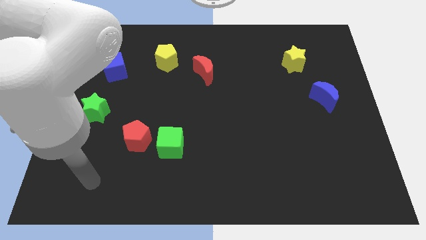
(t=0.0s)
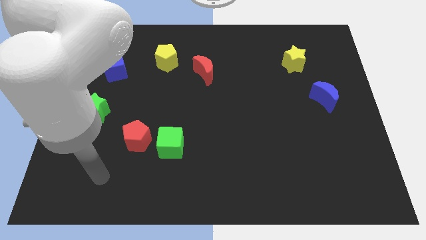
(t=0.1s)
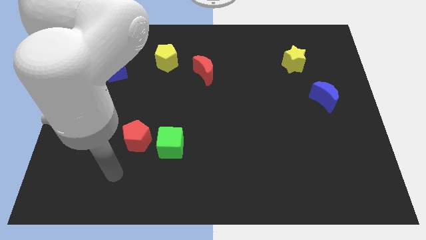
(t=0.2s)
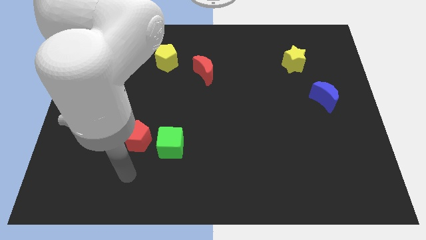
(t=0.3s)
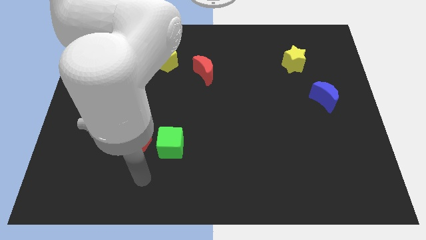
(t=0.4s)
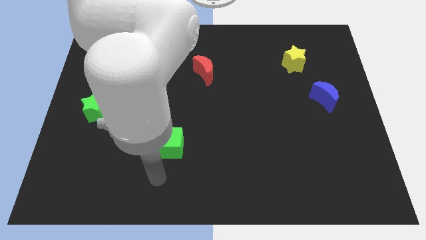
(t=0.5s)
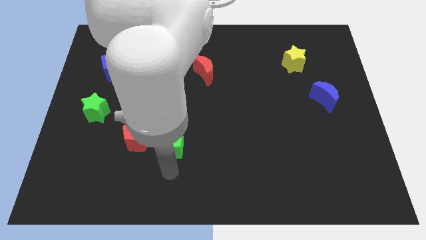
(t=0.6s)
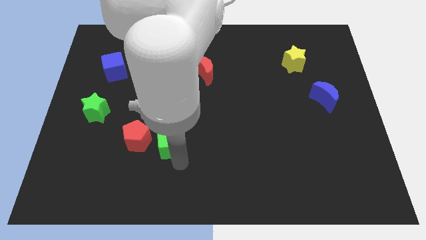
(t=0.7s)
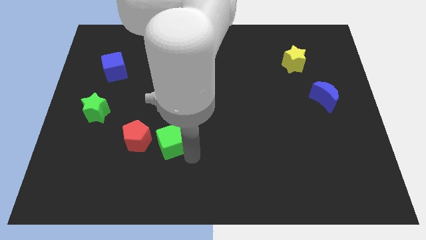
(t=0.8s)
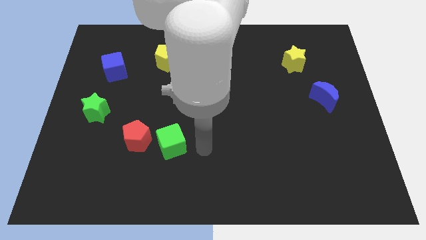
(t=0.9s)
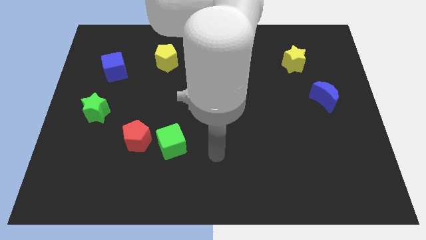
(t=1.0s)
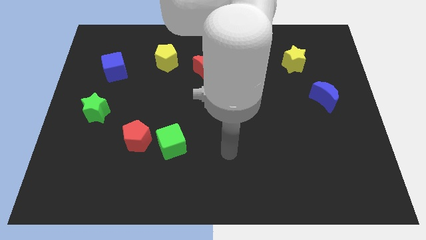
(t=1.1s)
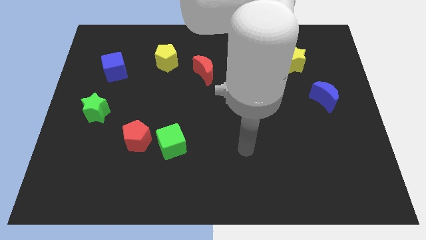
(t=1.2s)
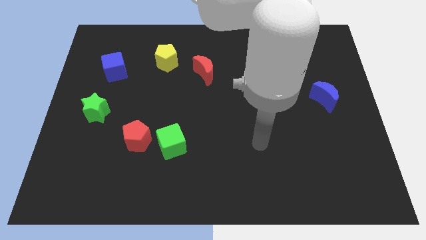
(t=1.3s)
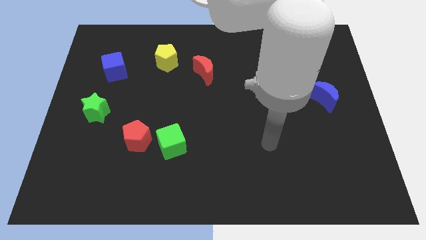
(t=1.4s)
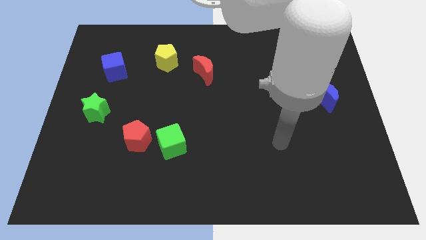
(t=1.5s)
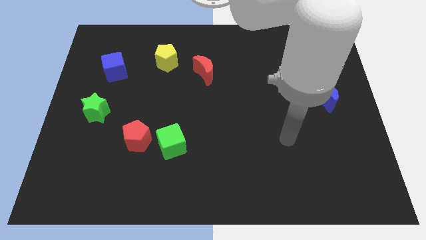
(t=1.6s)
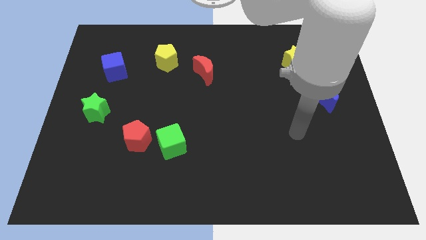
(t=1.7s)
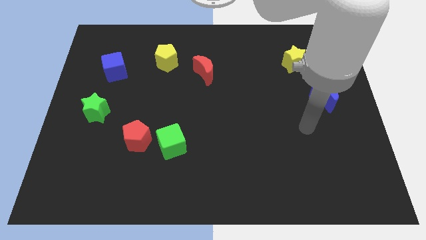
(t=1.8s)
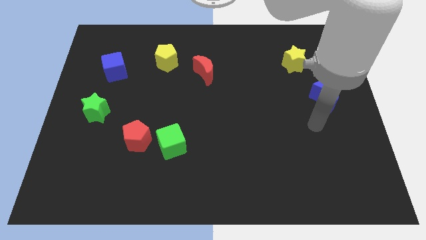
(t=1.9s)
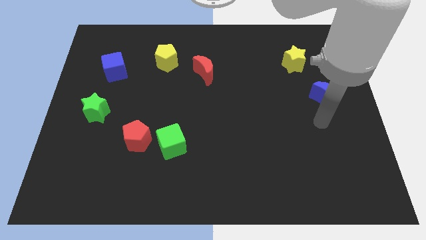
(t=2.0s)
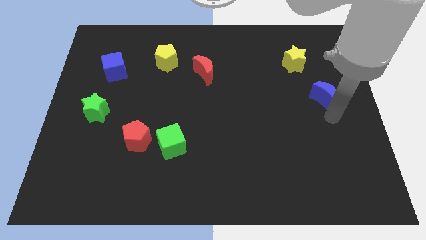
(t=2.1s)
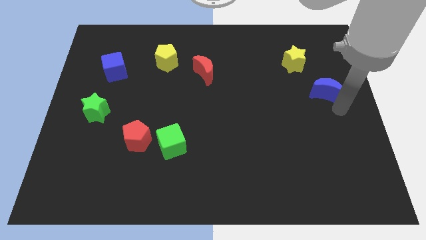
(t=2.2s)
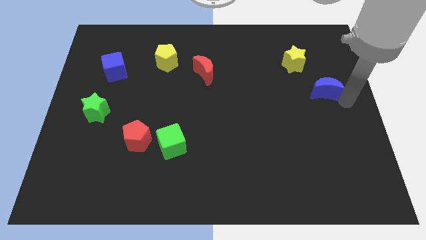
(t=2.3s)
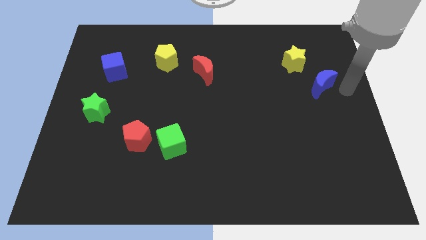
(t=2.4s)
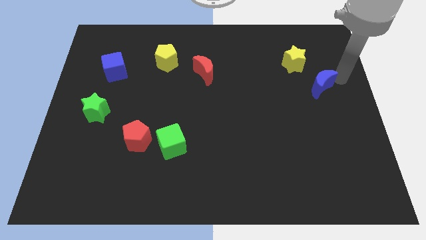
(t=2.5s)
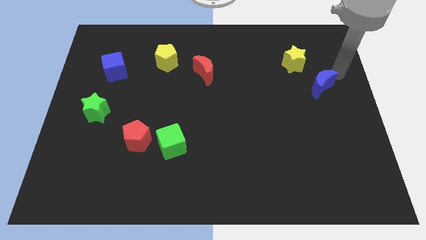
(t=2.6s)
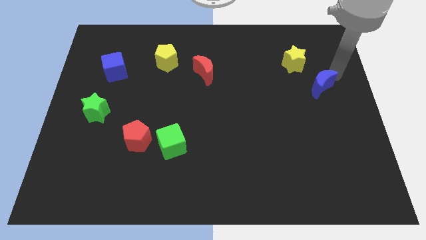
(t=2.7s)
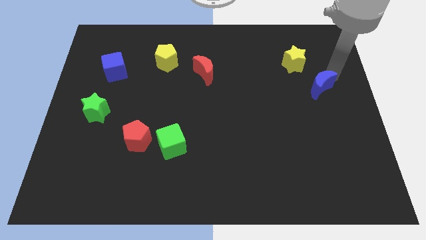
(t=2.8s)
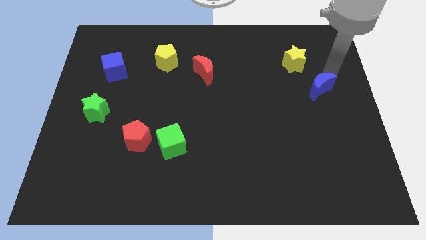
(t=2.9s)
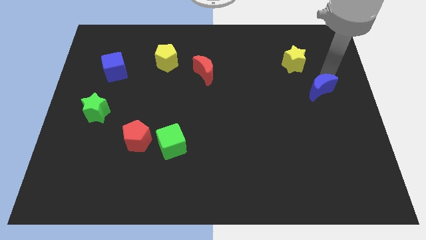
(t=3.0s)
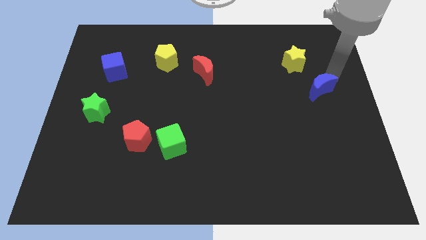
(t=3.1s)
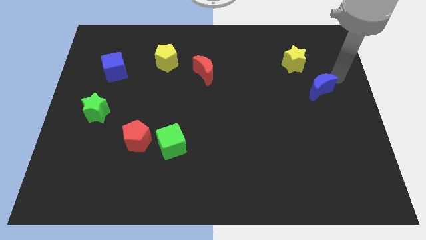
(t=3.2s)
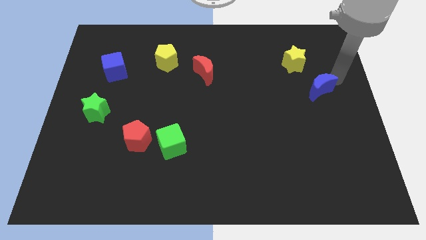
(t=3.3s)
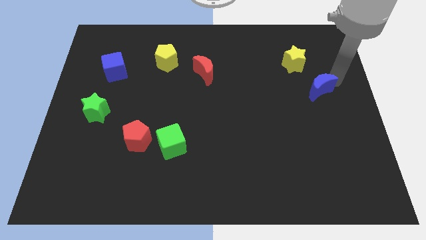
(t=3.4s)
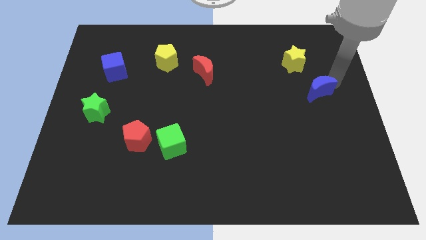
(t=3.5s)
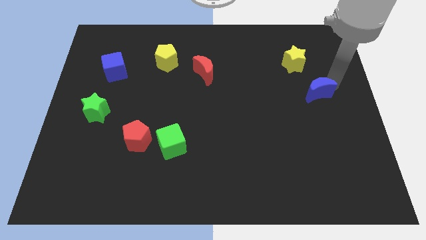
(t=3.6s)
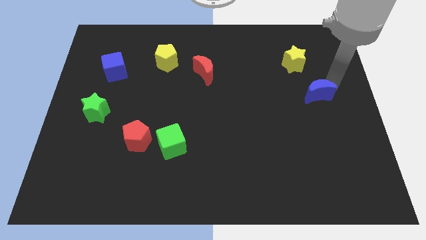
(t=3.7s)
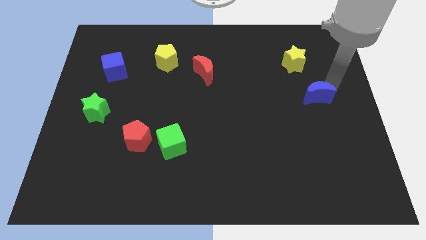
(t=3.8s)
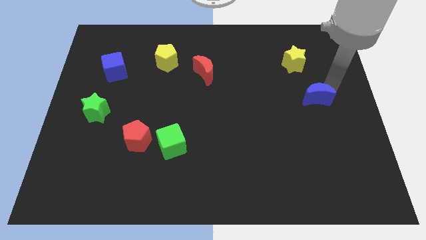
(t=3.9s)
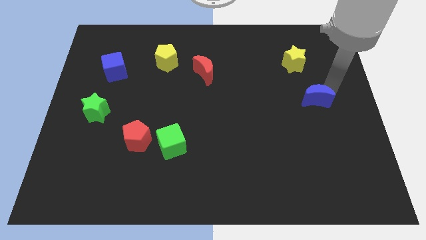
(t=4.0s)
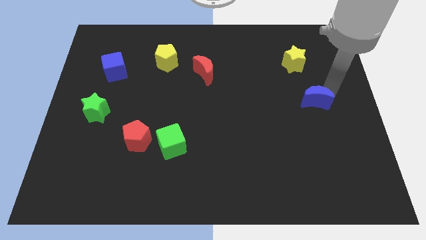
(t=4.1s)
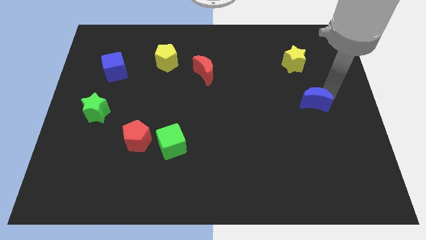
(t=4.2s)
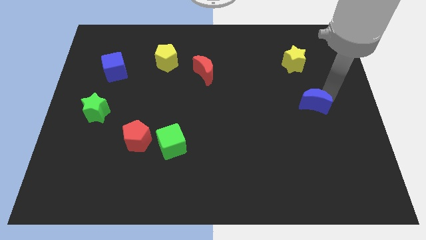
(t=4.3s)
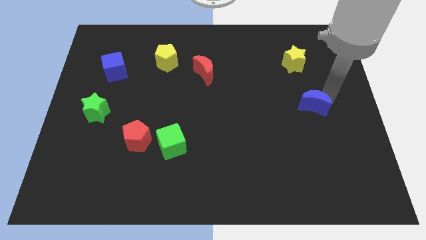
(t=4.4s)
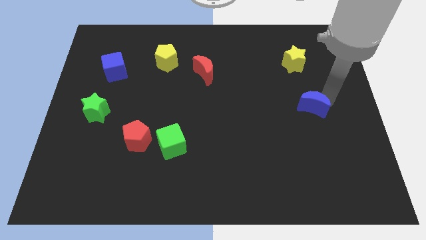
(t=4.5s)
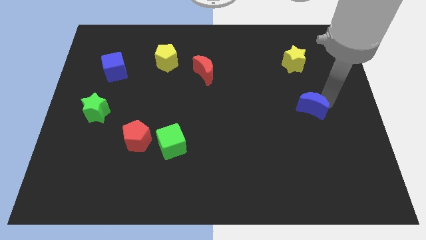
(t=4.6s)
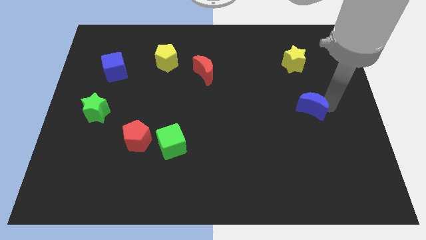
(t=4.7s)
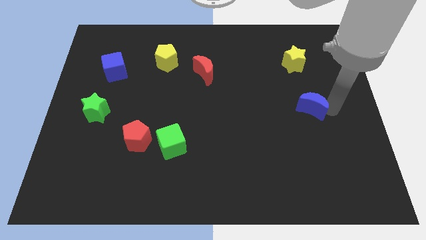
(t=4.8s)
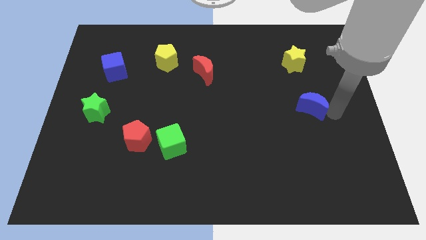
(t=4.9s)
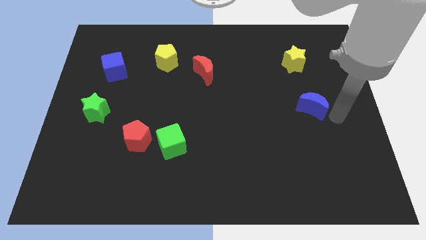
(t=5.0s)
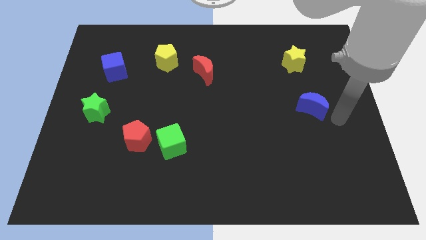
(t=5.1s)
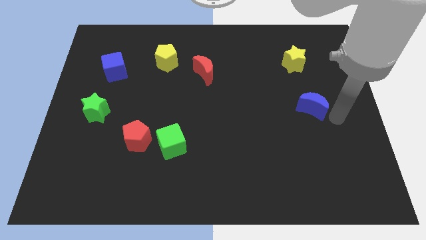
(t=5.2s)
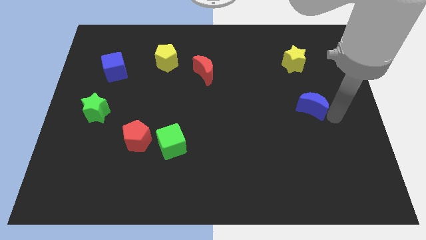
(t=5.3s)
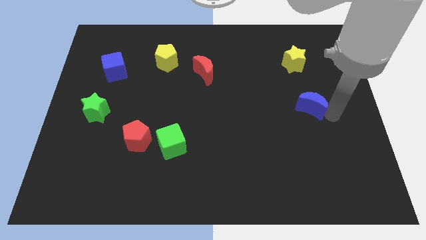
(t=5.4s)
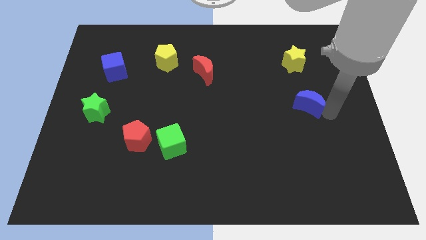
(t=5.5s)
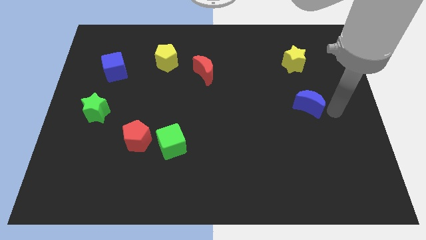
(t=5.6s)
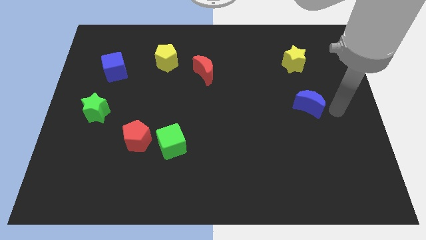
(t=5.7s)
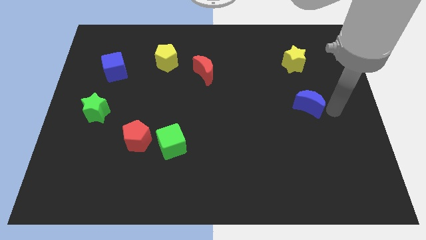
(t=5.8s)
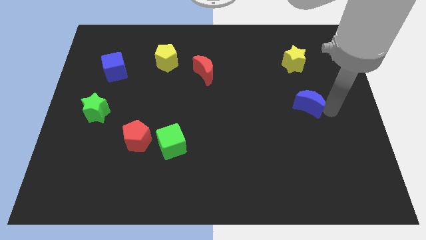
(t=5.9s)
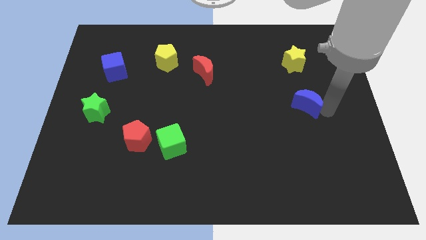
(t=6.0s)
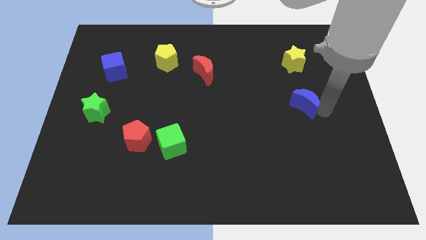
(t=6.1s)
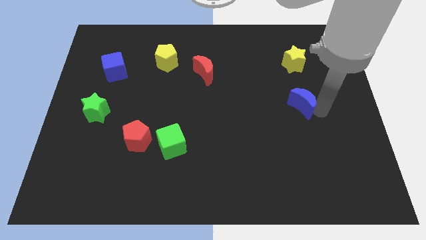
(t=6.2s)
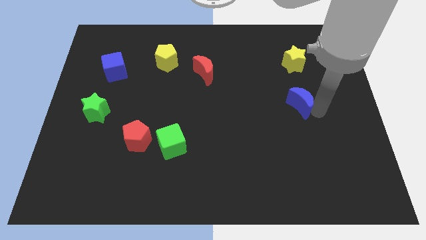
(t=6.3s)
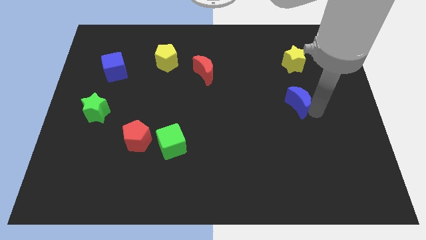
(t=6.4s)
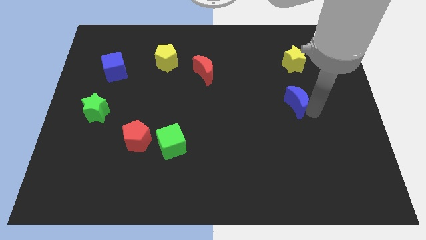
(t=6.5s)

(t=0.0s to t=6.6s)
slide the blue moon slightly left

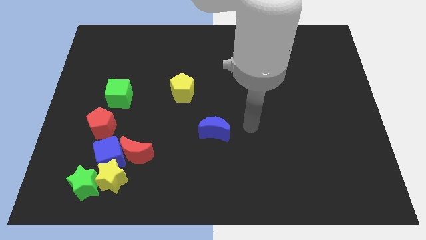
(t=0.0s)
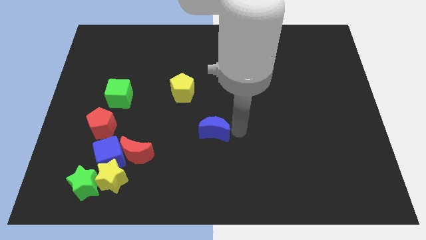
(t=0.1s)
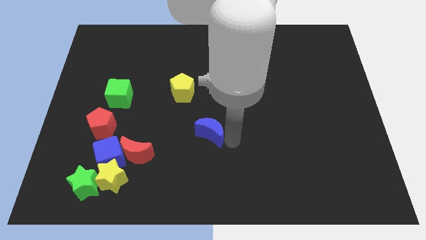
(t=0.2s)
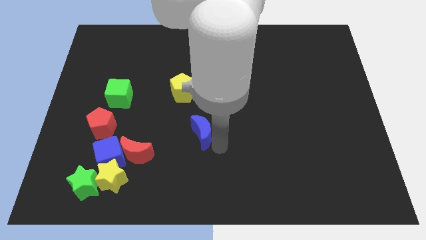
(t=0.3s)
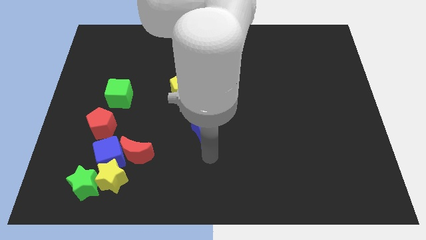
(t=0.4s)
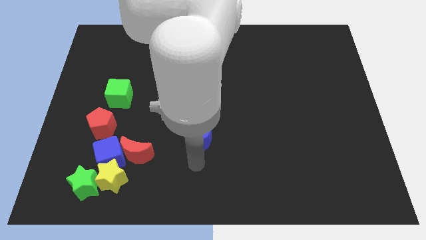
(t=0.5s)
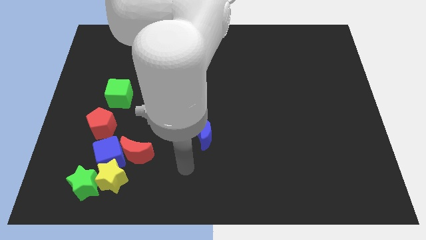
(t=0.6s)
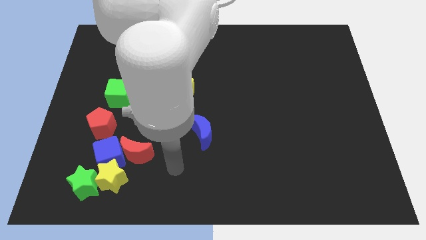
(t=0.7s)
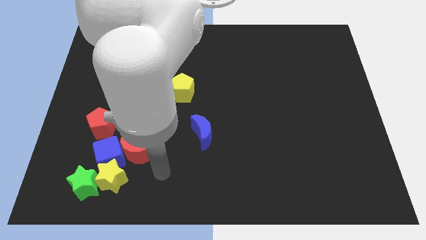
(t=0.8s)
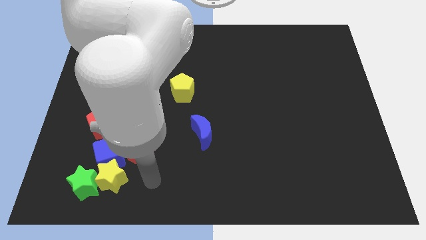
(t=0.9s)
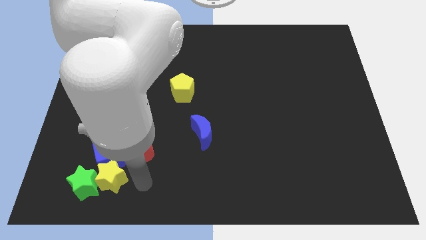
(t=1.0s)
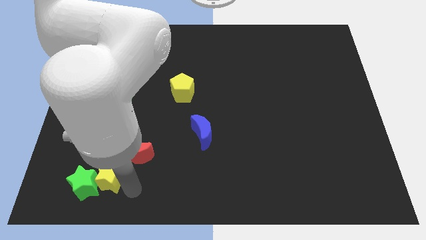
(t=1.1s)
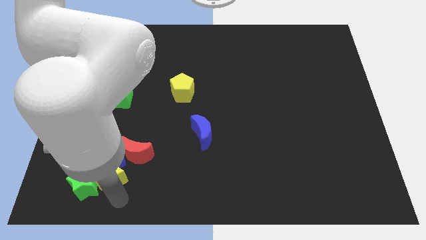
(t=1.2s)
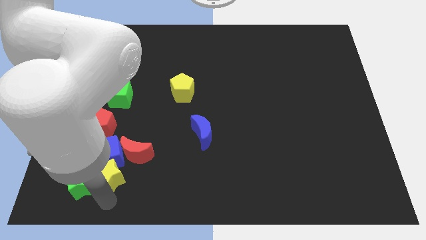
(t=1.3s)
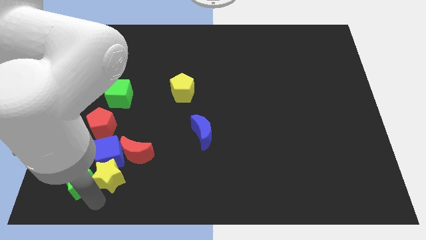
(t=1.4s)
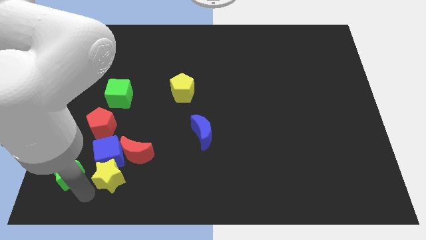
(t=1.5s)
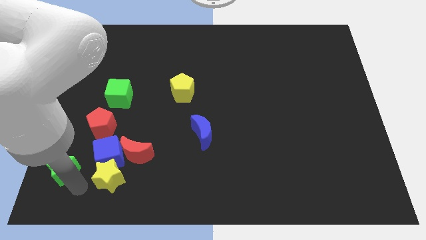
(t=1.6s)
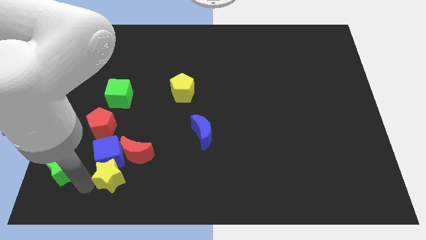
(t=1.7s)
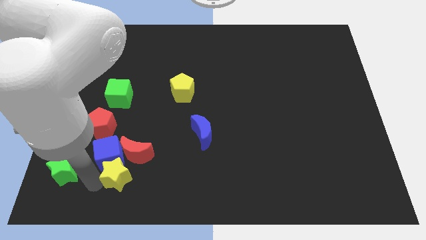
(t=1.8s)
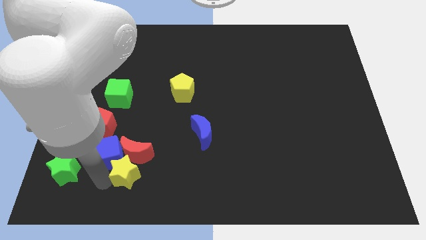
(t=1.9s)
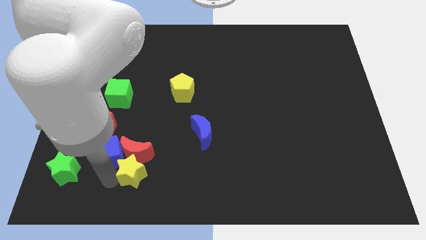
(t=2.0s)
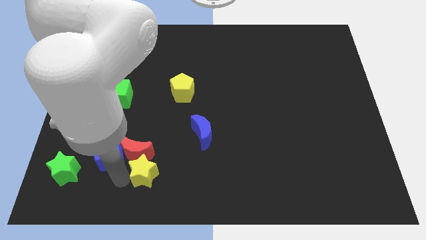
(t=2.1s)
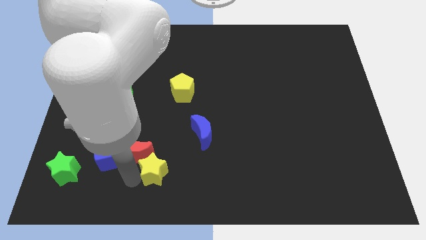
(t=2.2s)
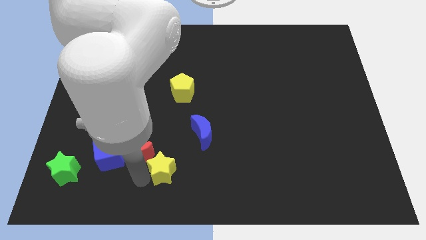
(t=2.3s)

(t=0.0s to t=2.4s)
push the yellow star a bit up and right
